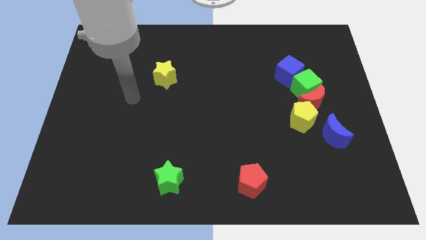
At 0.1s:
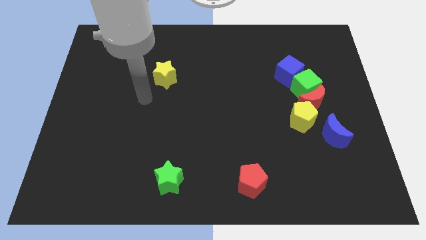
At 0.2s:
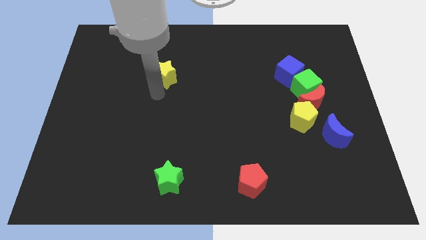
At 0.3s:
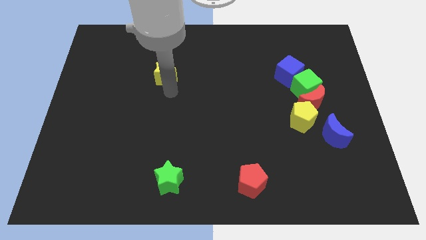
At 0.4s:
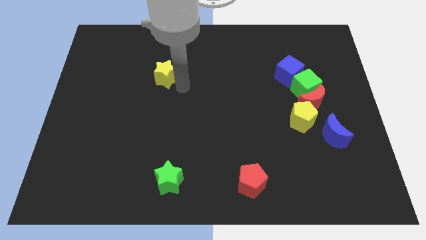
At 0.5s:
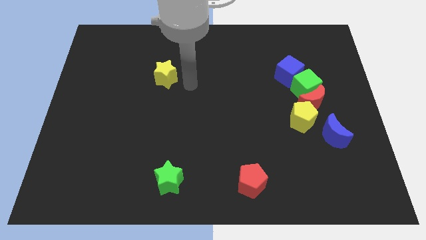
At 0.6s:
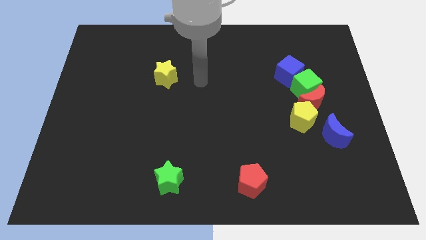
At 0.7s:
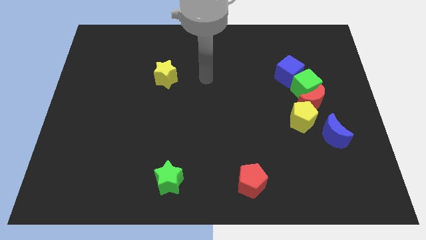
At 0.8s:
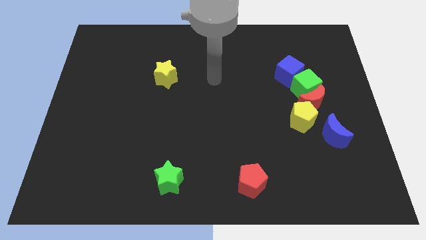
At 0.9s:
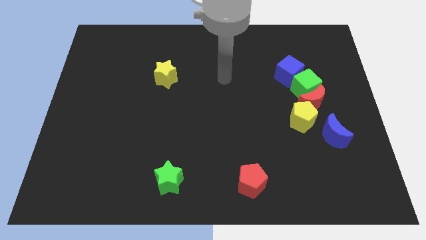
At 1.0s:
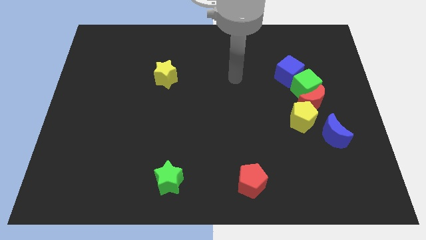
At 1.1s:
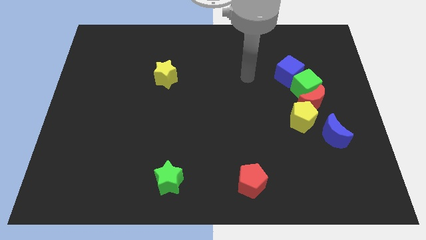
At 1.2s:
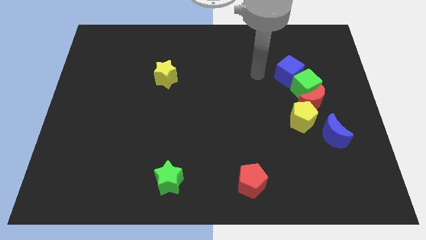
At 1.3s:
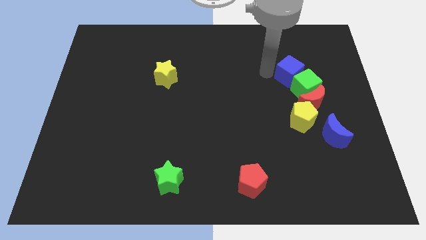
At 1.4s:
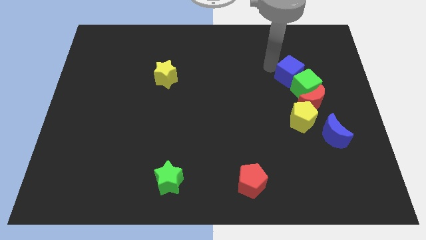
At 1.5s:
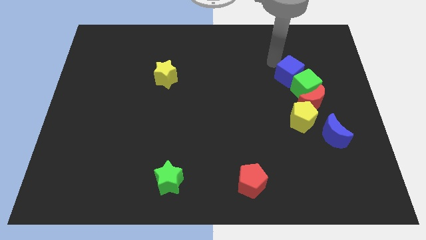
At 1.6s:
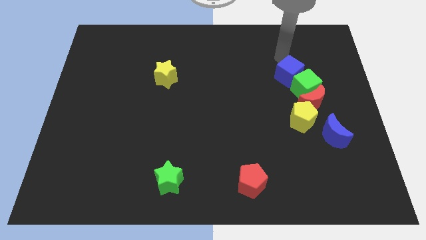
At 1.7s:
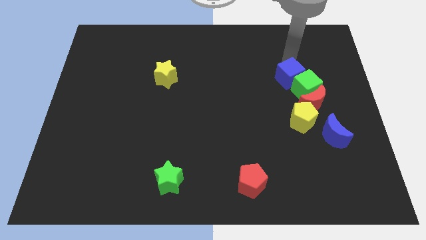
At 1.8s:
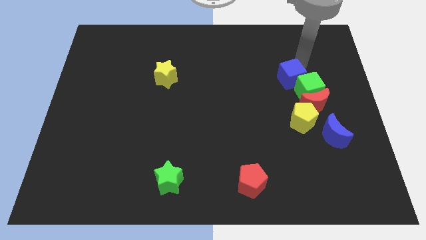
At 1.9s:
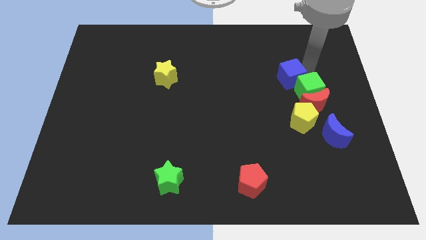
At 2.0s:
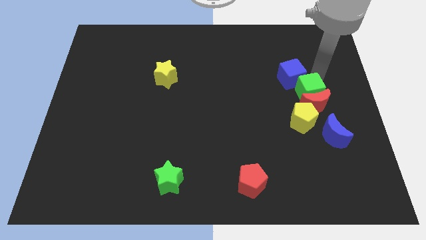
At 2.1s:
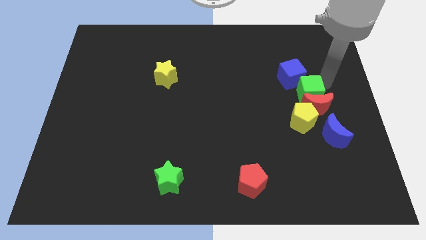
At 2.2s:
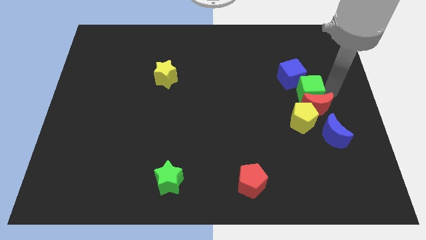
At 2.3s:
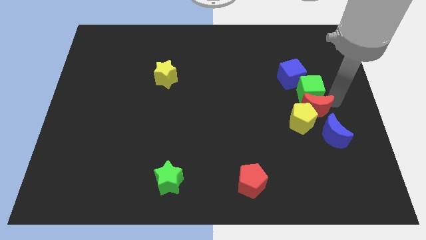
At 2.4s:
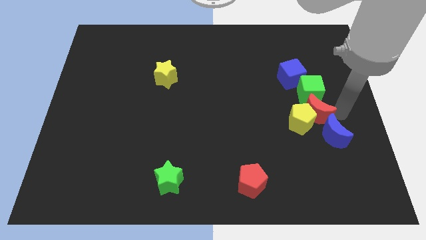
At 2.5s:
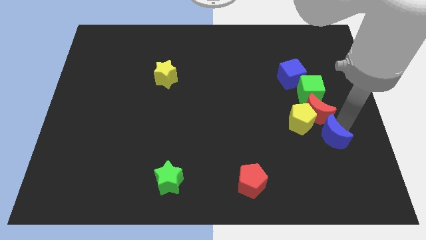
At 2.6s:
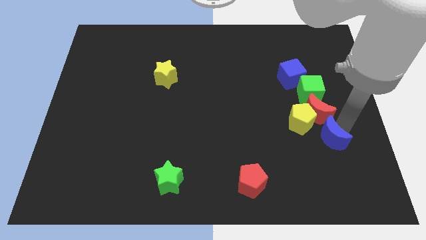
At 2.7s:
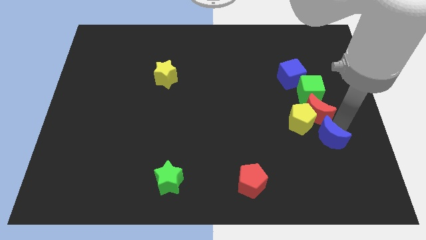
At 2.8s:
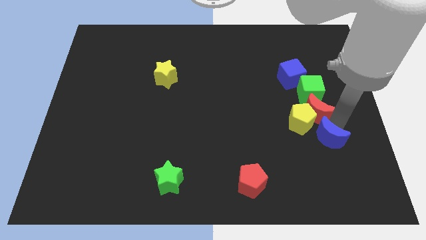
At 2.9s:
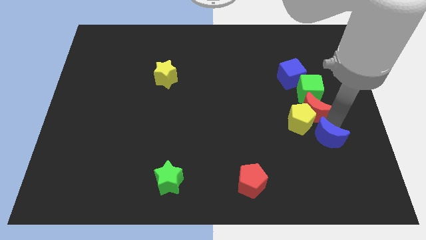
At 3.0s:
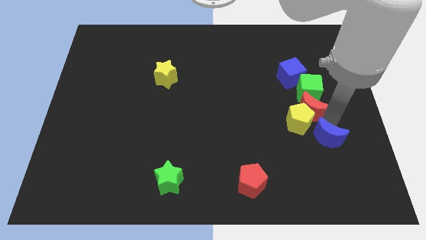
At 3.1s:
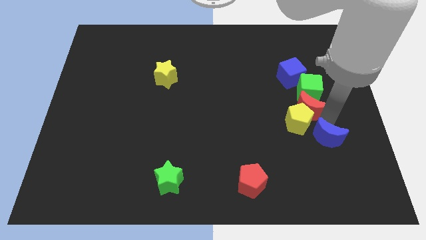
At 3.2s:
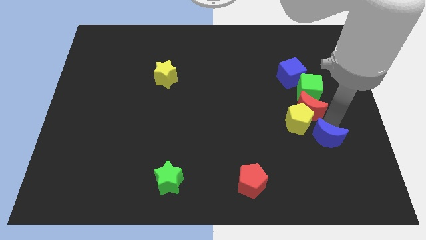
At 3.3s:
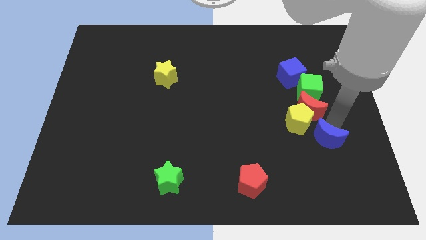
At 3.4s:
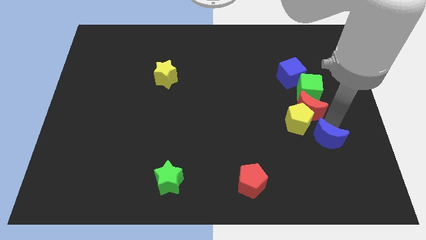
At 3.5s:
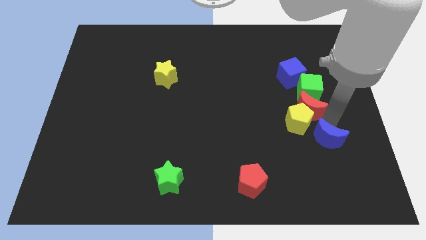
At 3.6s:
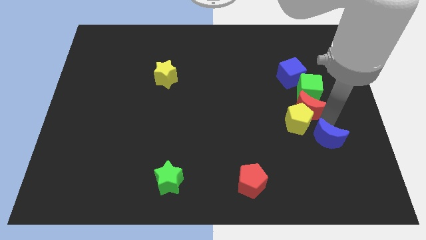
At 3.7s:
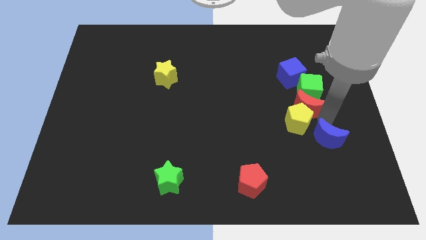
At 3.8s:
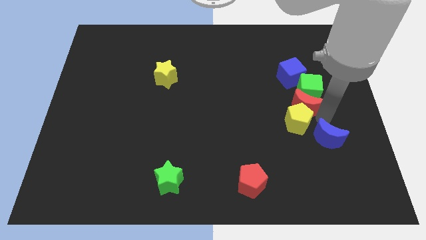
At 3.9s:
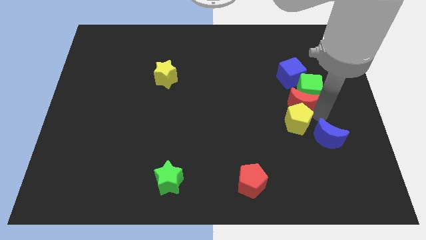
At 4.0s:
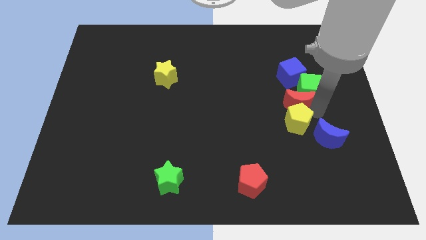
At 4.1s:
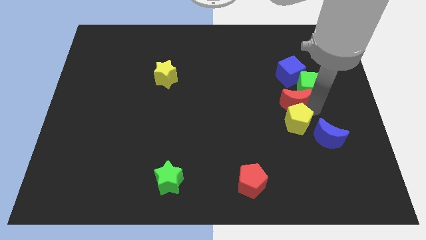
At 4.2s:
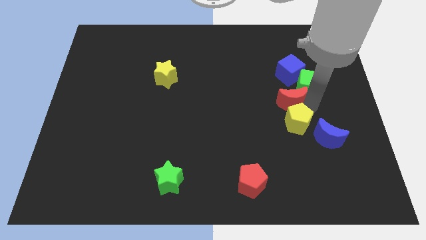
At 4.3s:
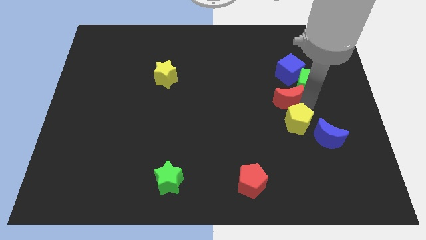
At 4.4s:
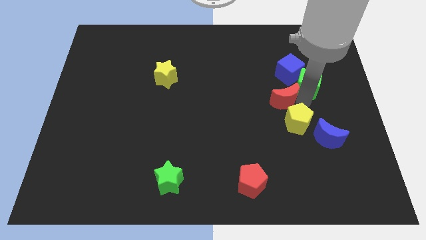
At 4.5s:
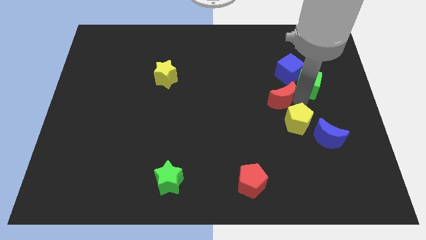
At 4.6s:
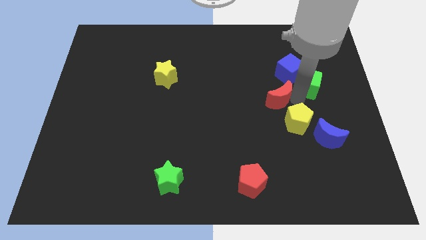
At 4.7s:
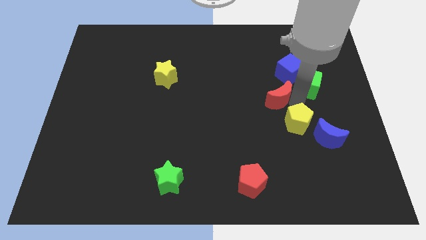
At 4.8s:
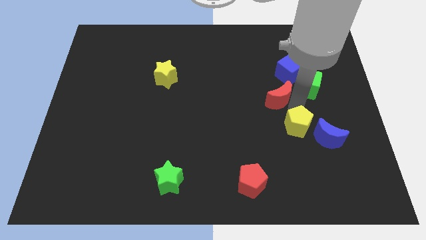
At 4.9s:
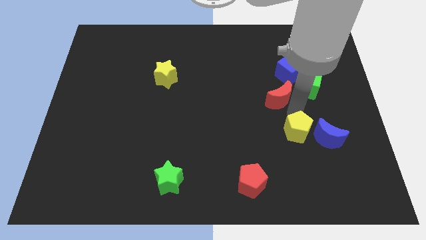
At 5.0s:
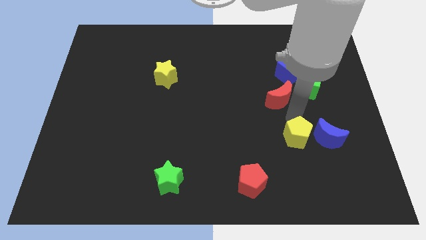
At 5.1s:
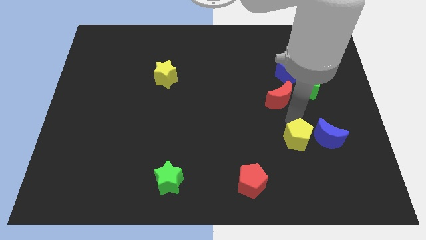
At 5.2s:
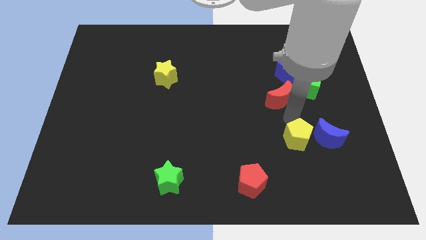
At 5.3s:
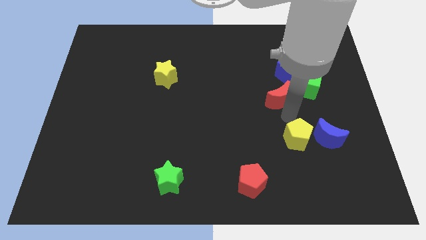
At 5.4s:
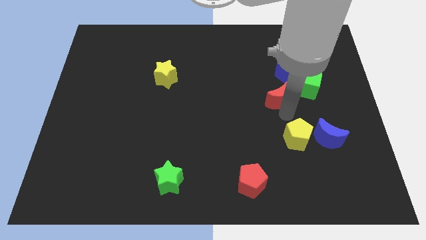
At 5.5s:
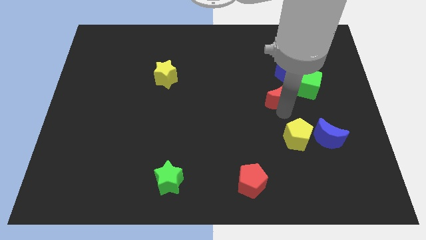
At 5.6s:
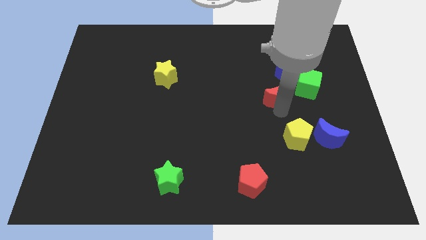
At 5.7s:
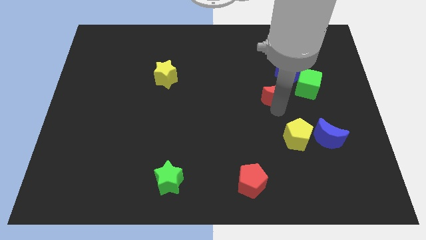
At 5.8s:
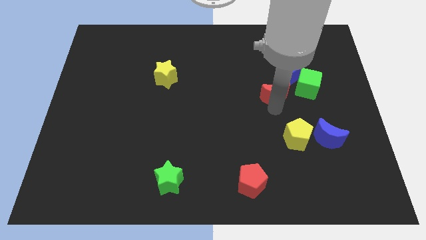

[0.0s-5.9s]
slide the red moon a little upwards and to the left

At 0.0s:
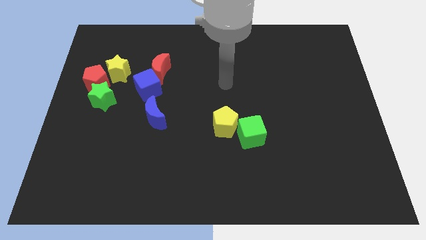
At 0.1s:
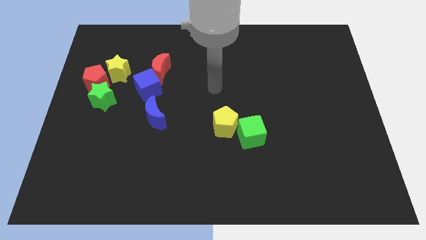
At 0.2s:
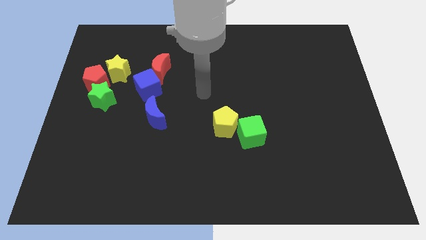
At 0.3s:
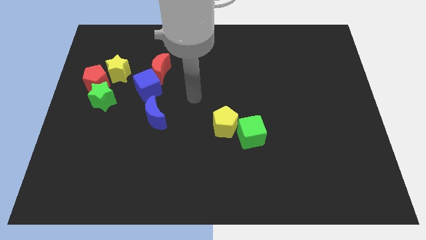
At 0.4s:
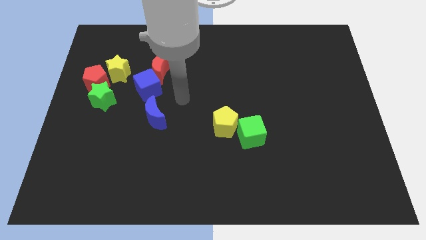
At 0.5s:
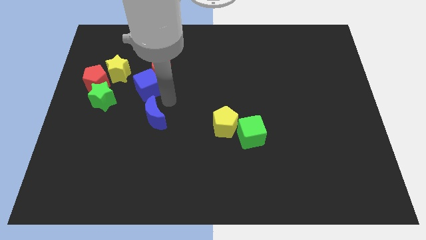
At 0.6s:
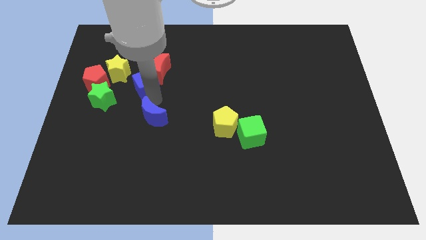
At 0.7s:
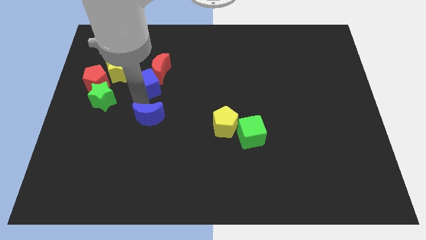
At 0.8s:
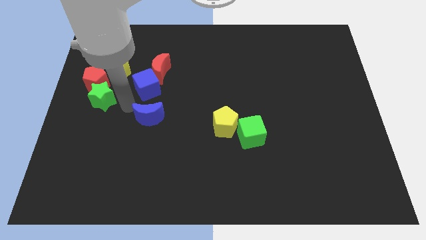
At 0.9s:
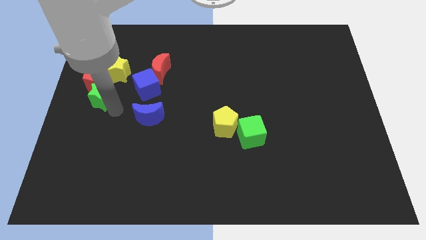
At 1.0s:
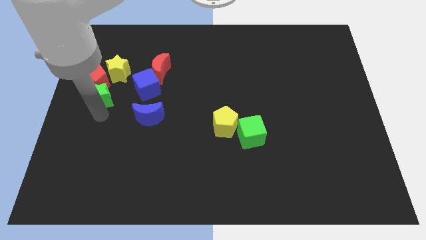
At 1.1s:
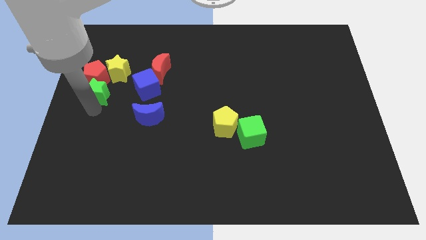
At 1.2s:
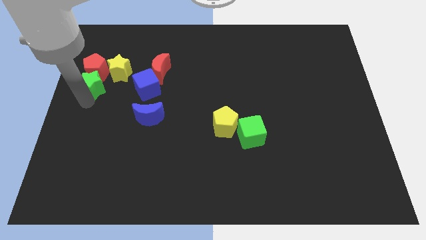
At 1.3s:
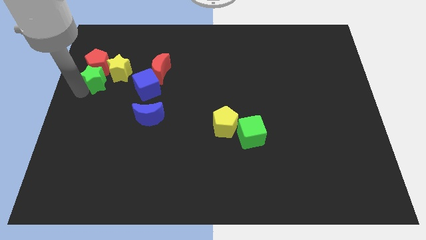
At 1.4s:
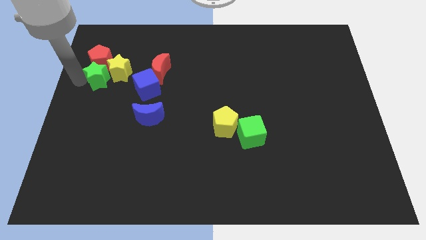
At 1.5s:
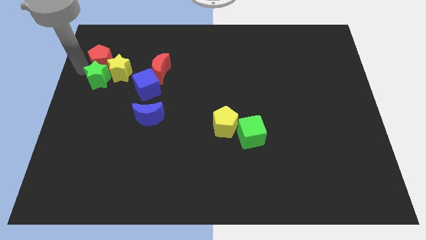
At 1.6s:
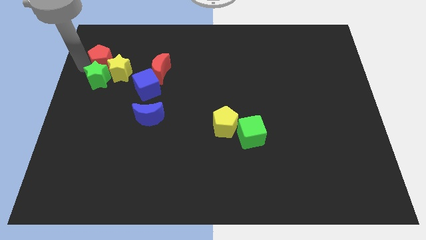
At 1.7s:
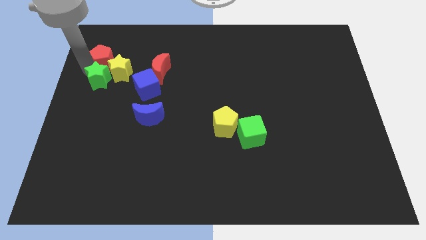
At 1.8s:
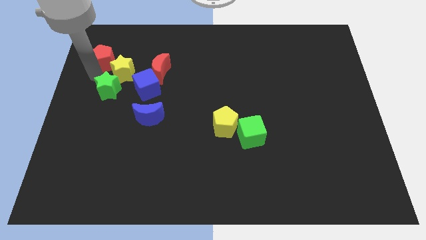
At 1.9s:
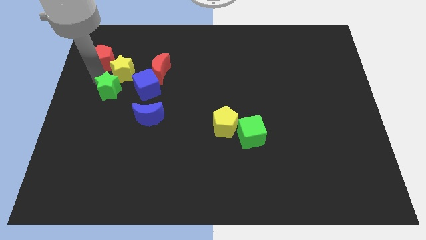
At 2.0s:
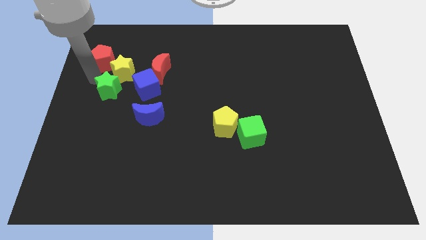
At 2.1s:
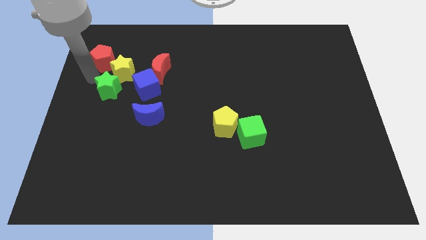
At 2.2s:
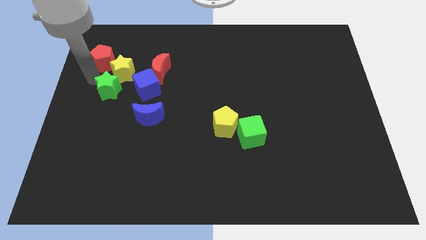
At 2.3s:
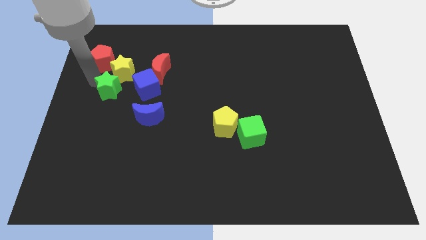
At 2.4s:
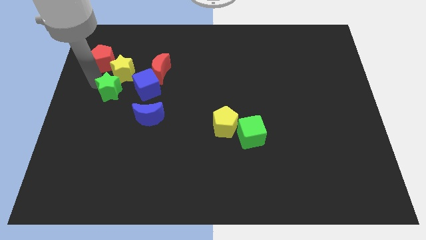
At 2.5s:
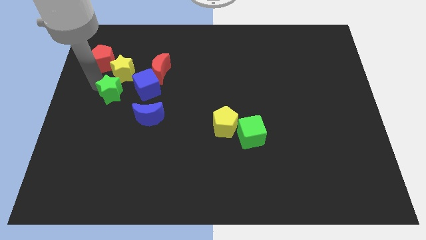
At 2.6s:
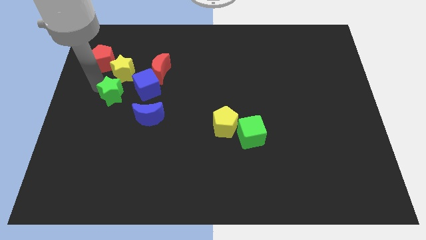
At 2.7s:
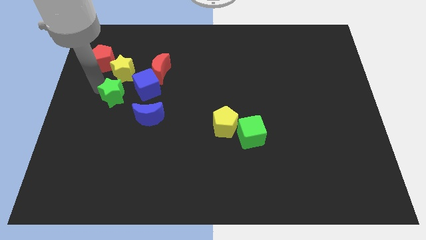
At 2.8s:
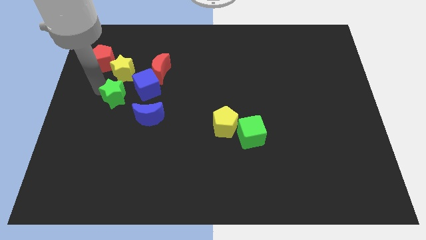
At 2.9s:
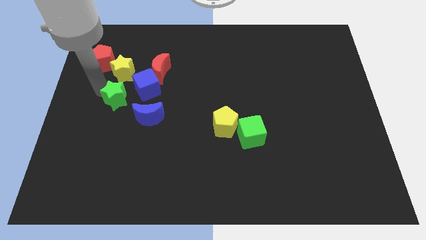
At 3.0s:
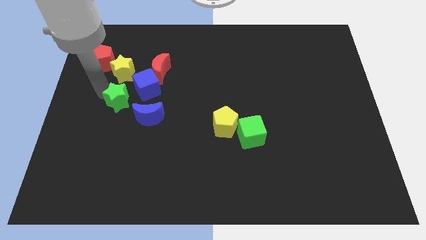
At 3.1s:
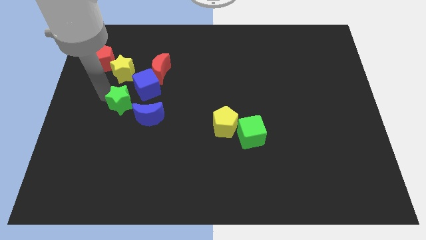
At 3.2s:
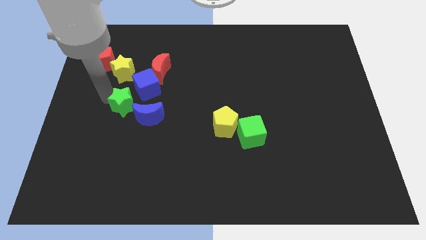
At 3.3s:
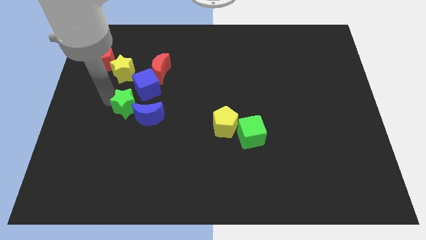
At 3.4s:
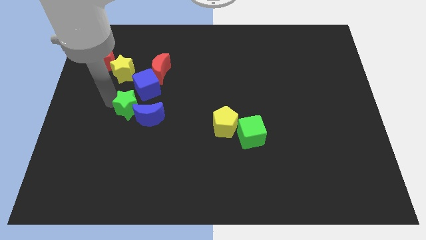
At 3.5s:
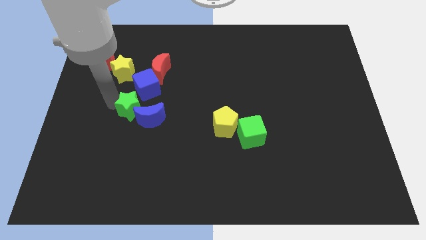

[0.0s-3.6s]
move the green star right a little bit
